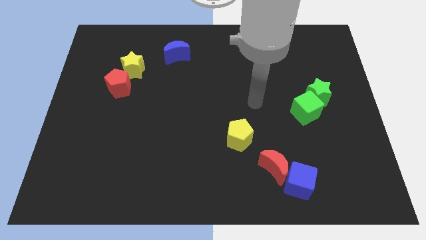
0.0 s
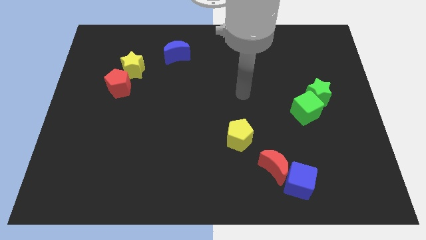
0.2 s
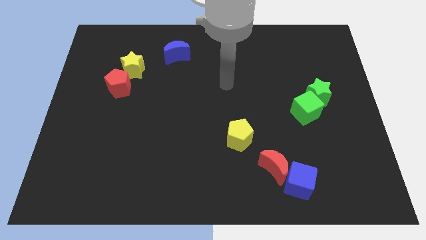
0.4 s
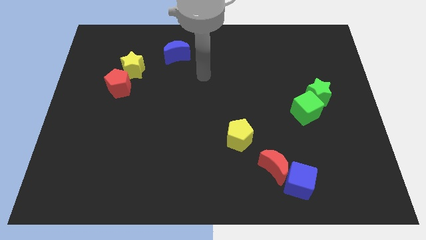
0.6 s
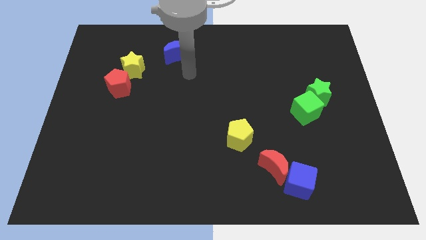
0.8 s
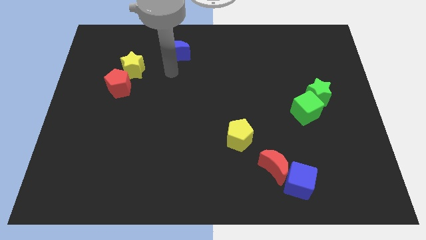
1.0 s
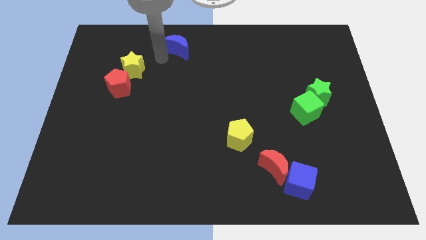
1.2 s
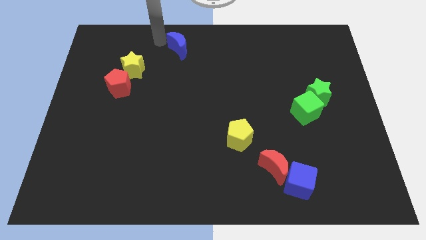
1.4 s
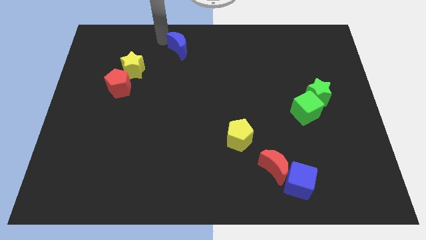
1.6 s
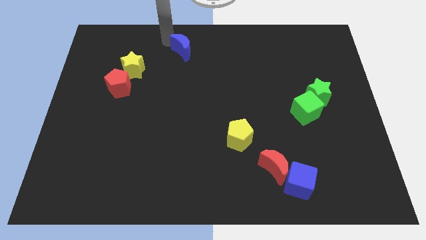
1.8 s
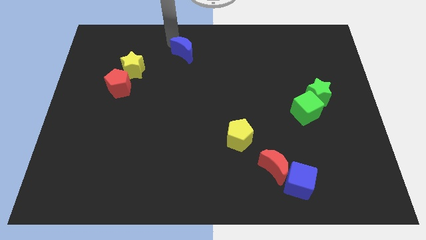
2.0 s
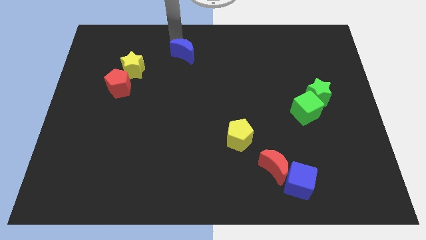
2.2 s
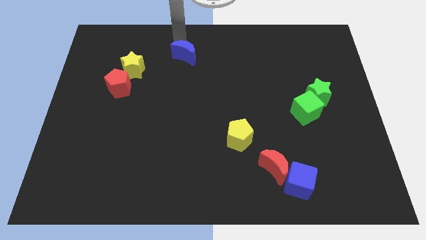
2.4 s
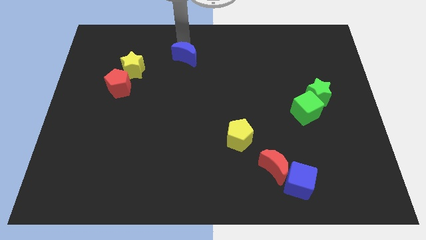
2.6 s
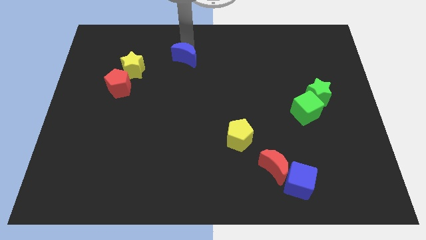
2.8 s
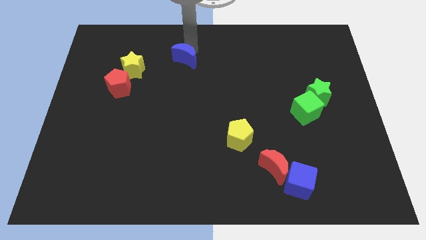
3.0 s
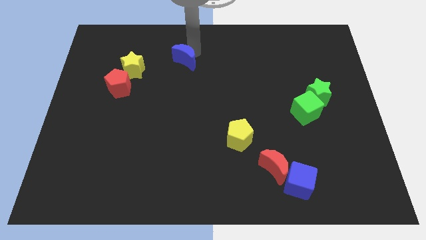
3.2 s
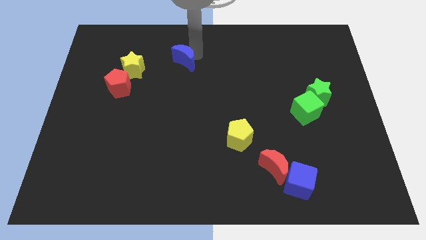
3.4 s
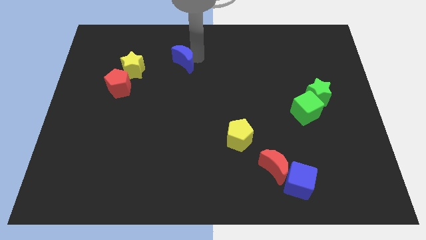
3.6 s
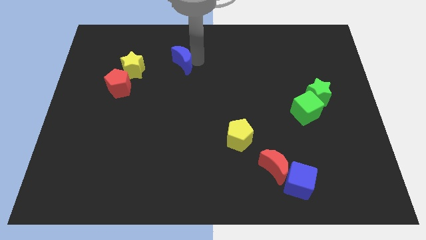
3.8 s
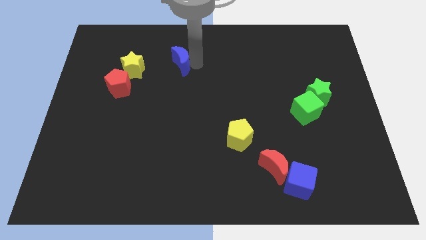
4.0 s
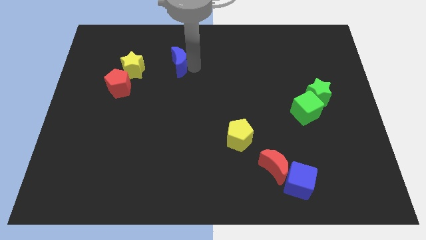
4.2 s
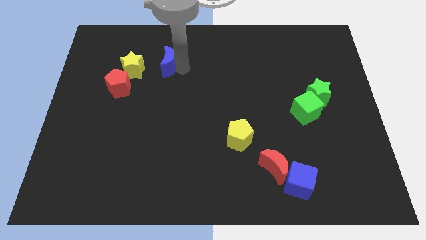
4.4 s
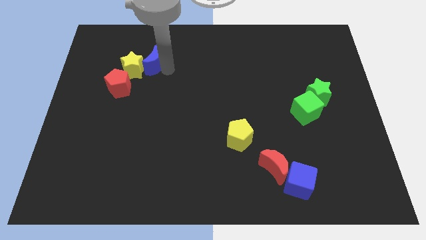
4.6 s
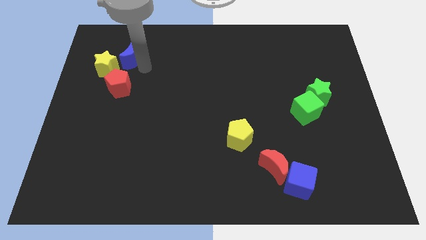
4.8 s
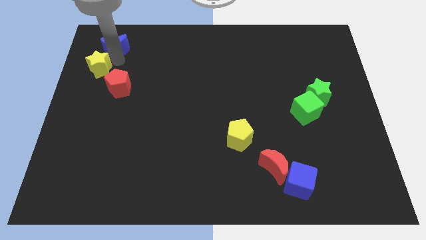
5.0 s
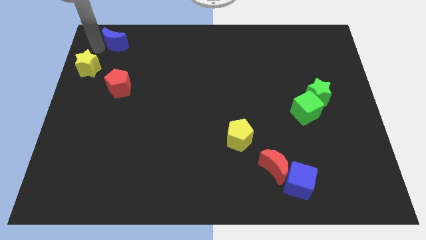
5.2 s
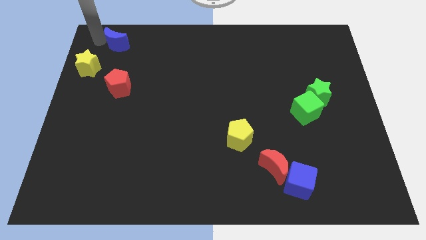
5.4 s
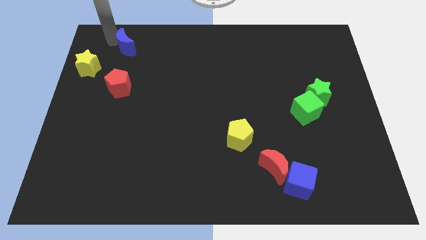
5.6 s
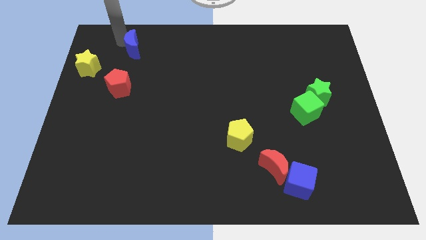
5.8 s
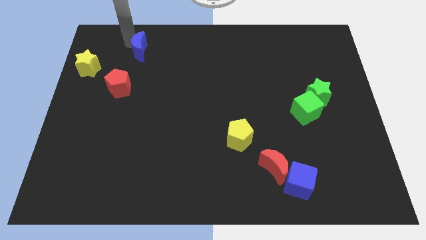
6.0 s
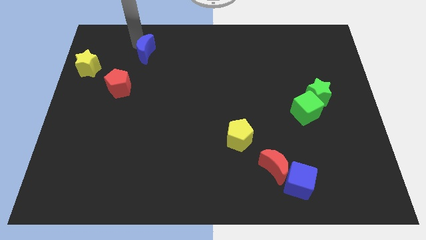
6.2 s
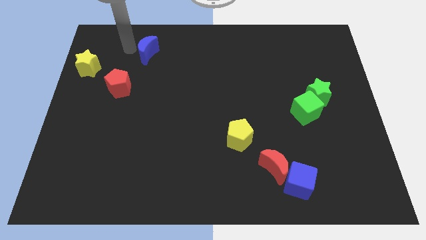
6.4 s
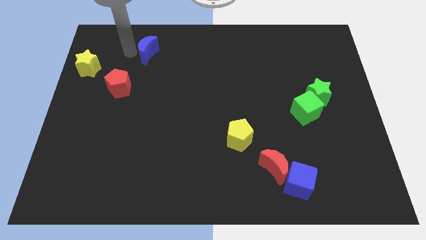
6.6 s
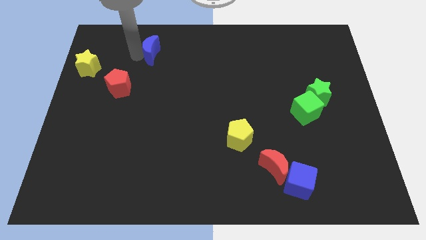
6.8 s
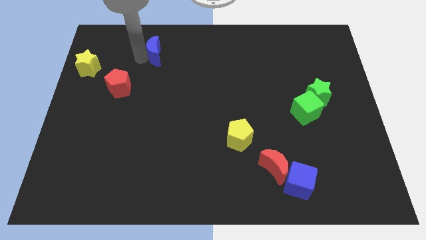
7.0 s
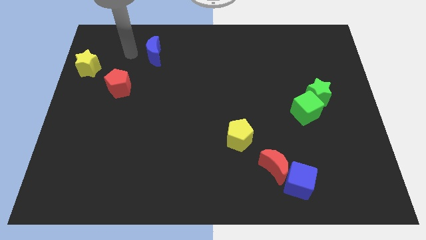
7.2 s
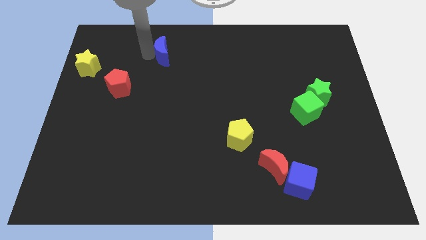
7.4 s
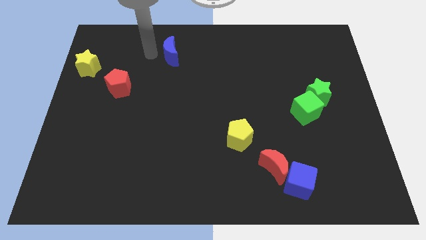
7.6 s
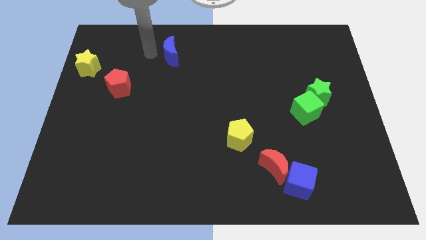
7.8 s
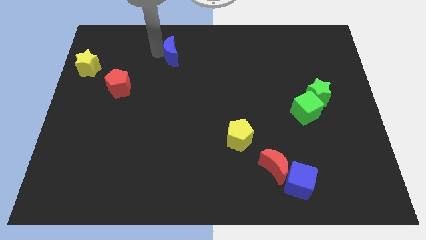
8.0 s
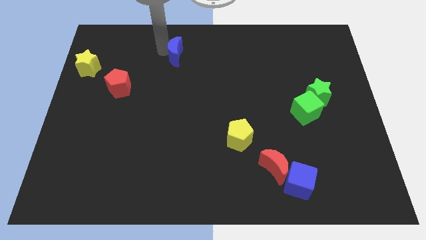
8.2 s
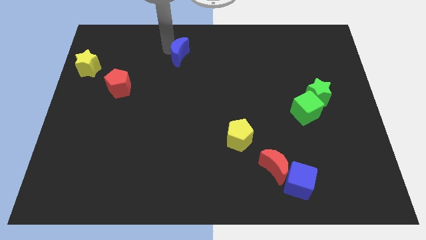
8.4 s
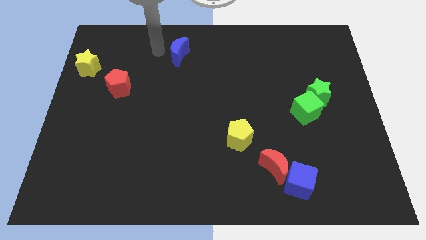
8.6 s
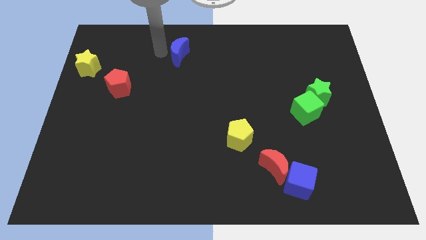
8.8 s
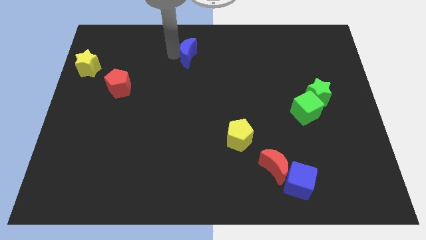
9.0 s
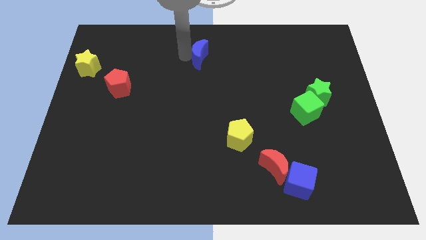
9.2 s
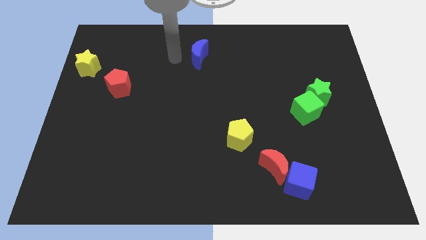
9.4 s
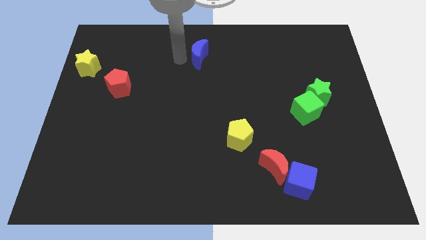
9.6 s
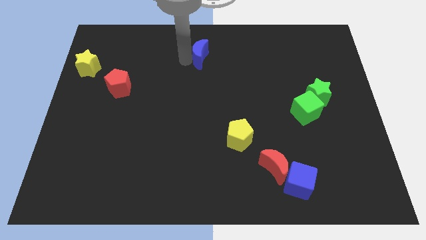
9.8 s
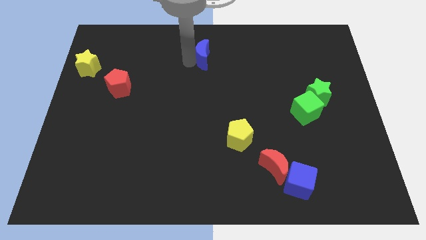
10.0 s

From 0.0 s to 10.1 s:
slightly push the blue moon to the right

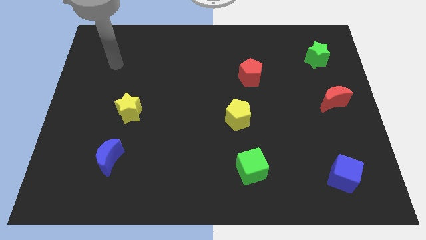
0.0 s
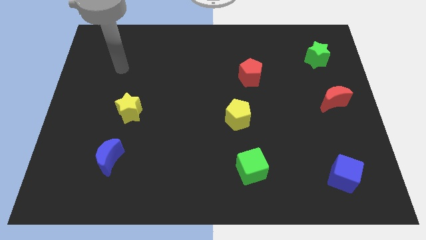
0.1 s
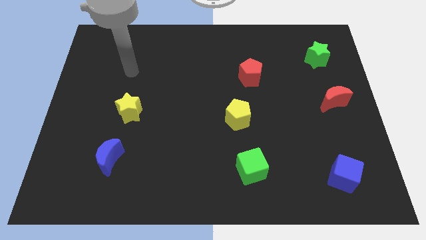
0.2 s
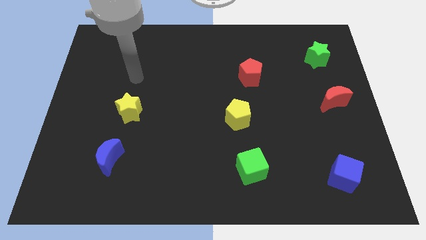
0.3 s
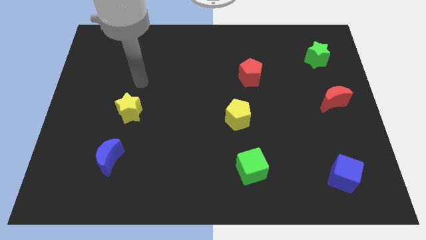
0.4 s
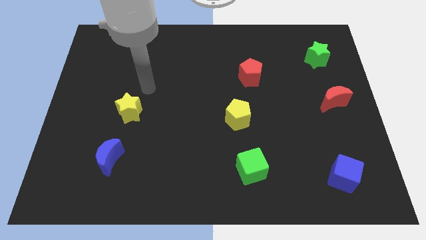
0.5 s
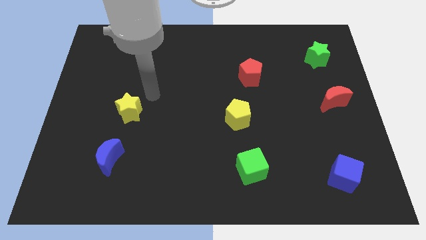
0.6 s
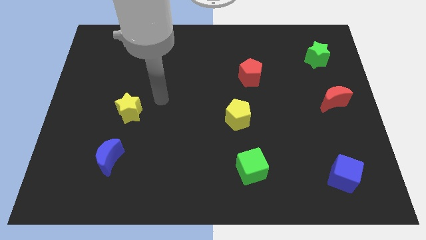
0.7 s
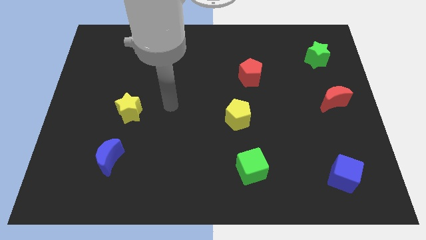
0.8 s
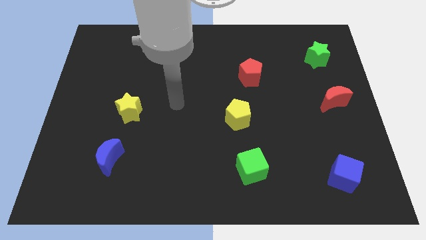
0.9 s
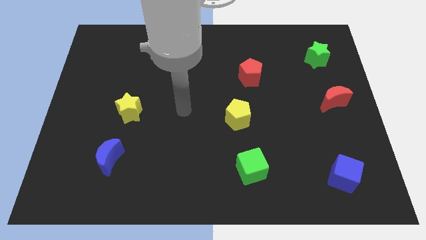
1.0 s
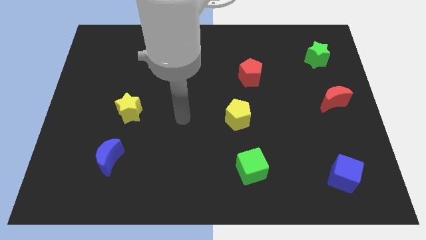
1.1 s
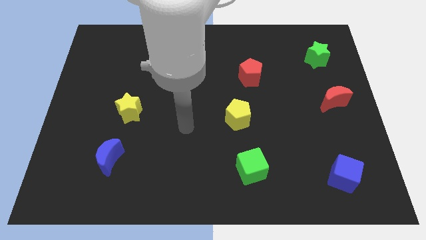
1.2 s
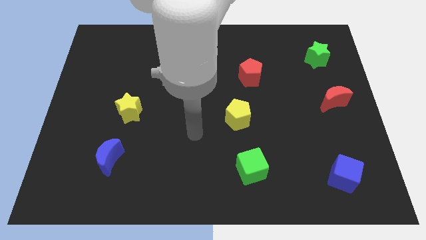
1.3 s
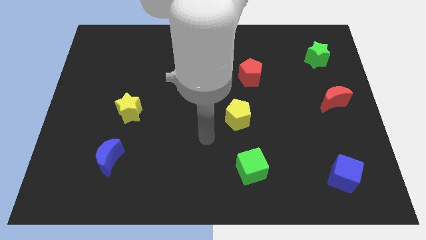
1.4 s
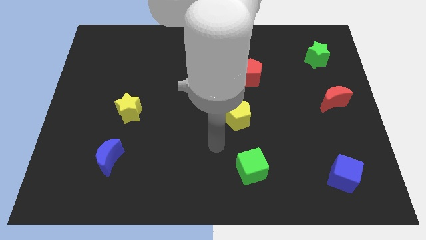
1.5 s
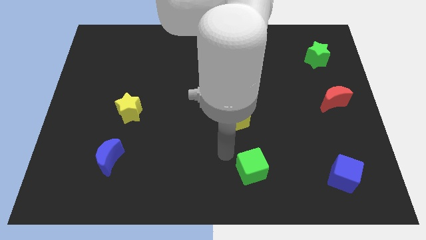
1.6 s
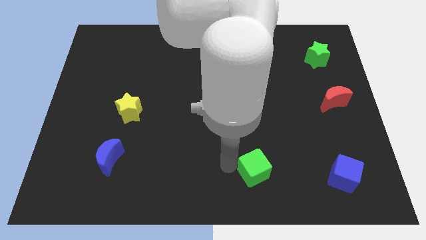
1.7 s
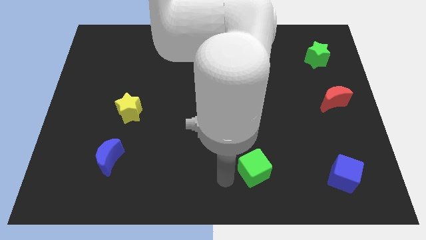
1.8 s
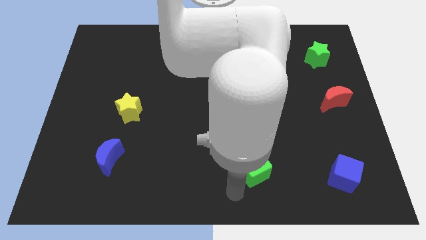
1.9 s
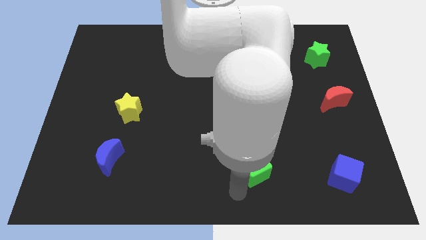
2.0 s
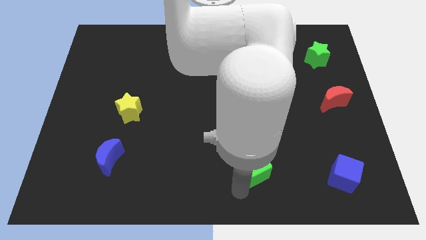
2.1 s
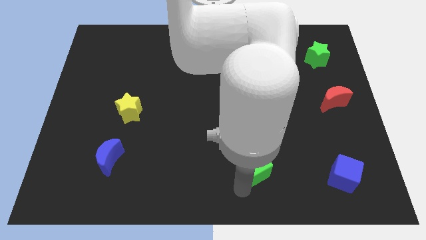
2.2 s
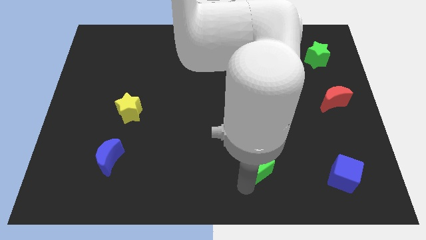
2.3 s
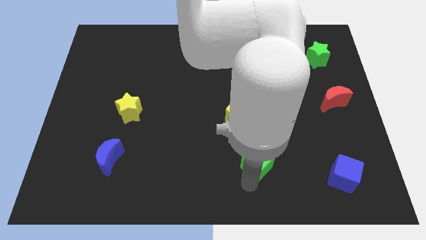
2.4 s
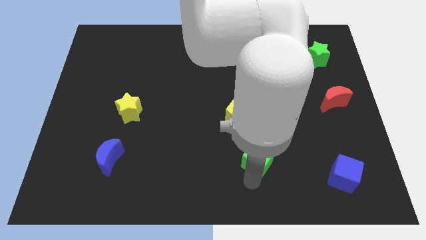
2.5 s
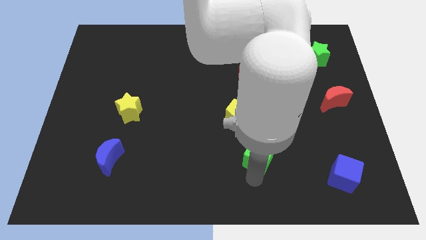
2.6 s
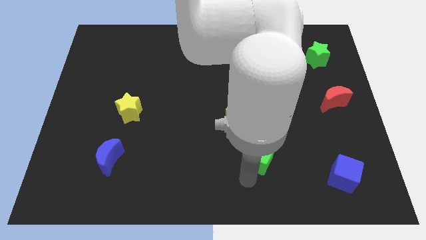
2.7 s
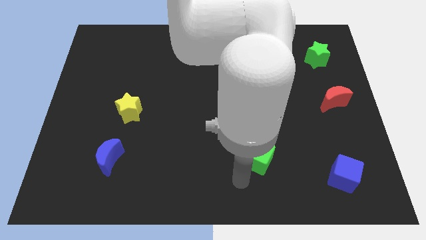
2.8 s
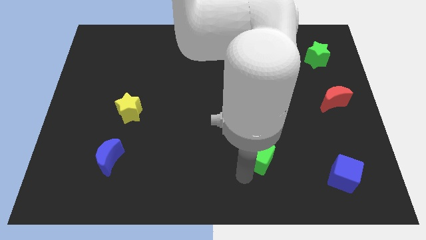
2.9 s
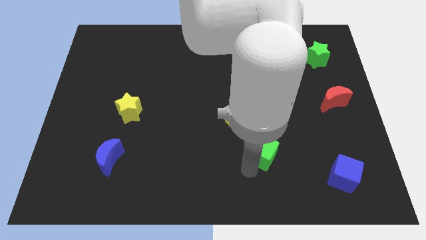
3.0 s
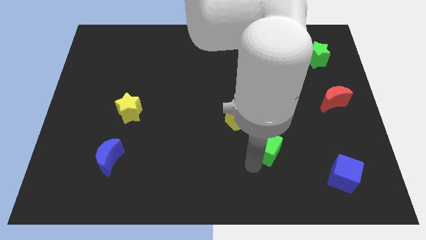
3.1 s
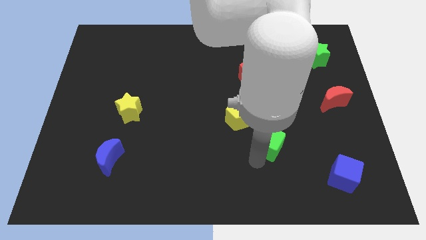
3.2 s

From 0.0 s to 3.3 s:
slightly move the green cube upwards and right diagonally
